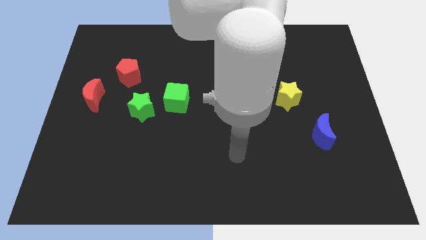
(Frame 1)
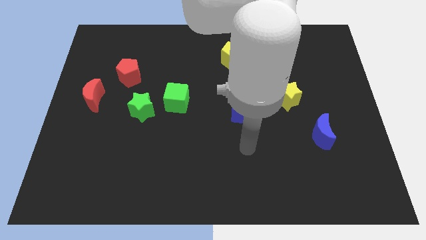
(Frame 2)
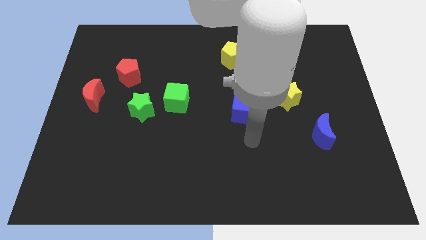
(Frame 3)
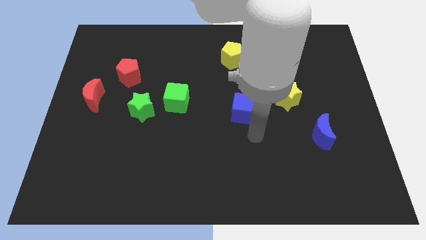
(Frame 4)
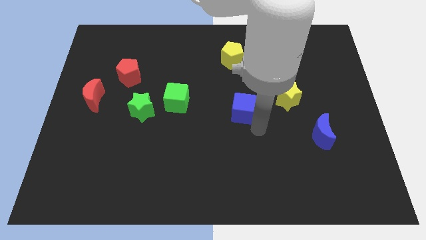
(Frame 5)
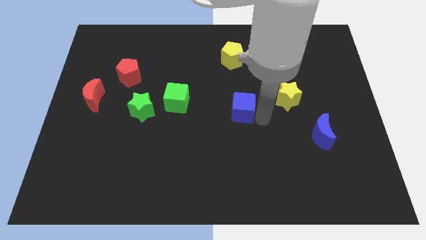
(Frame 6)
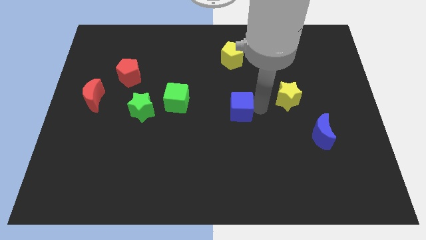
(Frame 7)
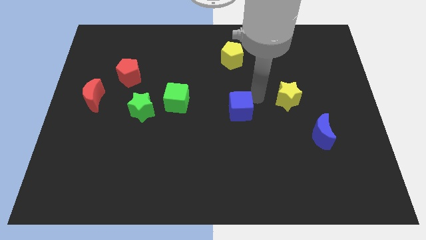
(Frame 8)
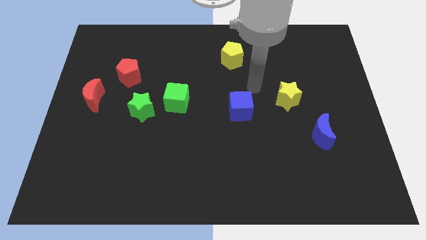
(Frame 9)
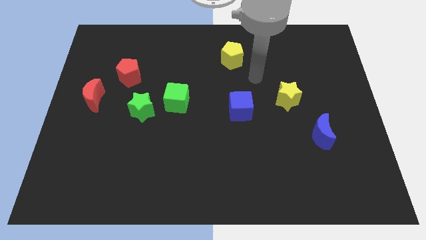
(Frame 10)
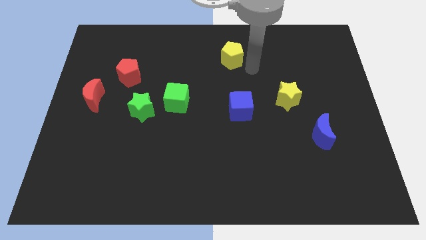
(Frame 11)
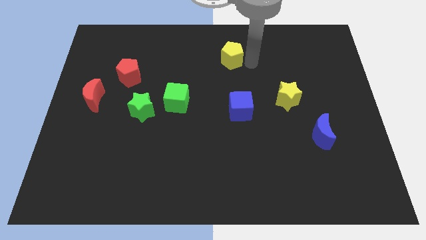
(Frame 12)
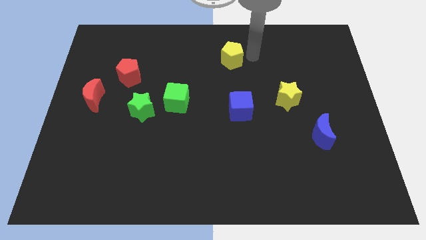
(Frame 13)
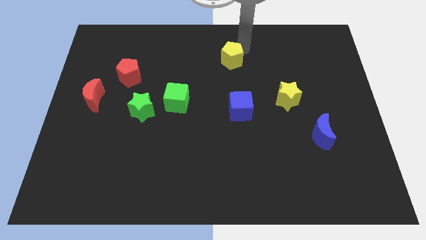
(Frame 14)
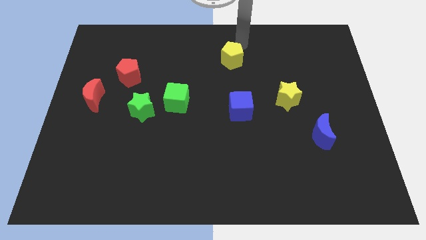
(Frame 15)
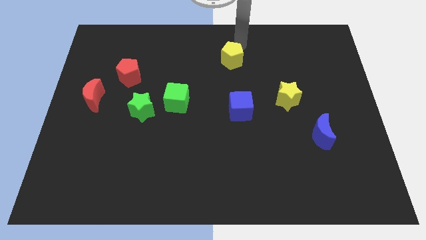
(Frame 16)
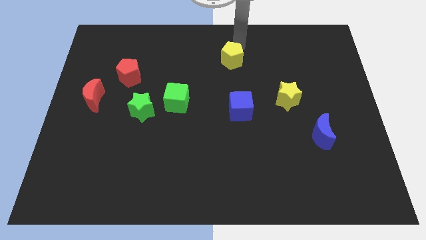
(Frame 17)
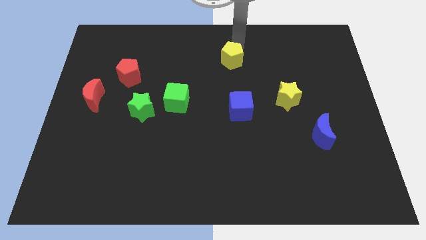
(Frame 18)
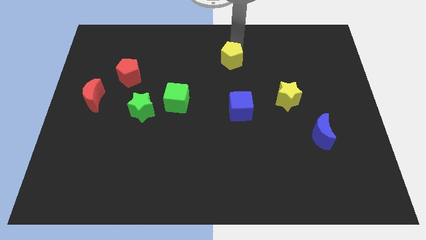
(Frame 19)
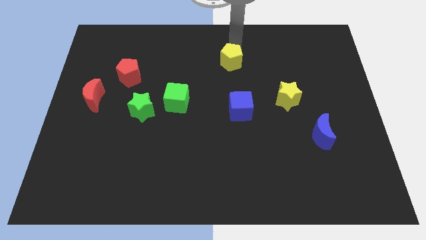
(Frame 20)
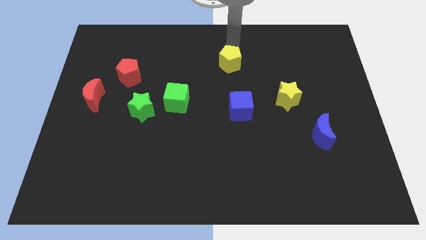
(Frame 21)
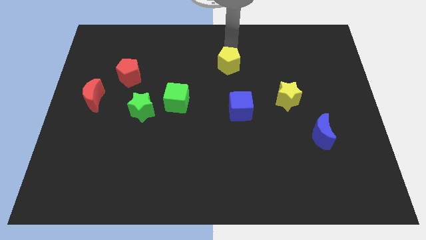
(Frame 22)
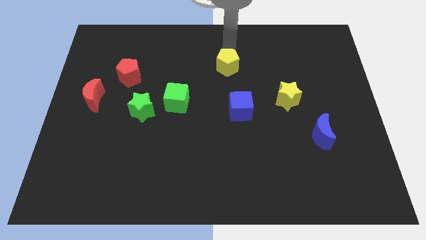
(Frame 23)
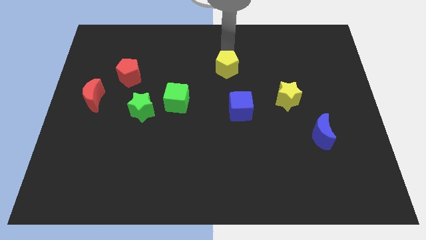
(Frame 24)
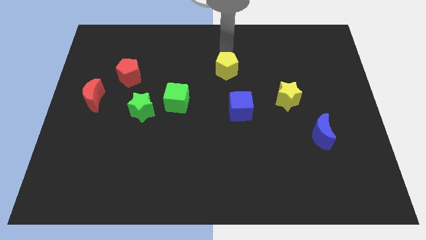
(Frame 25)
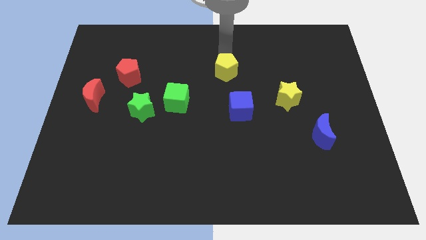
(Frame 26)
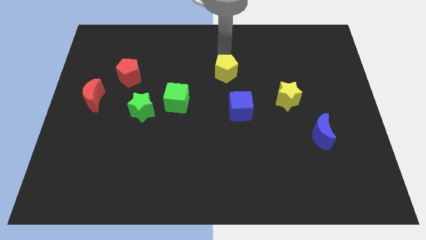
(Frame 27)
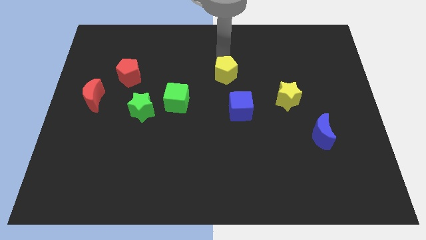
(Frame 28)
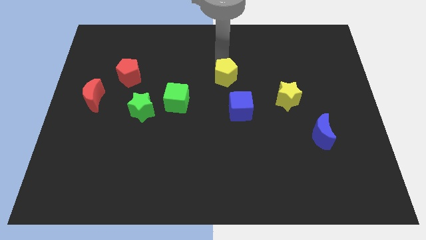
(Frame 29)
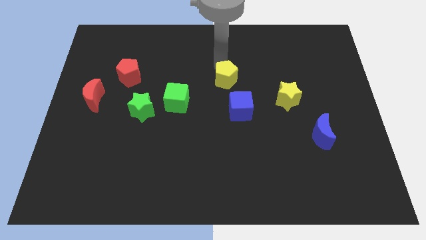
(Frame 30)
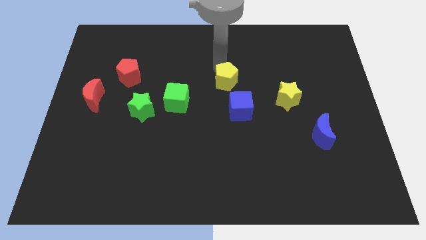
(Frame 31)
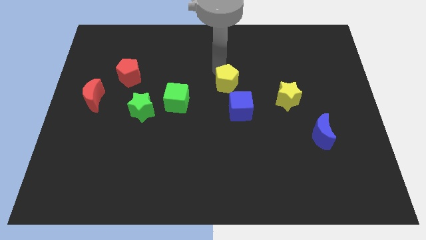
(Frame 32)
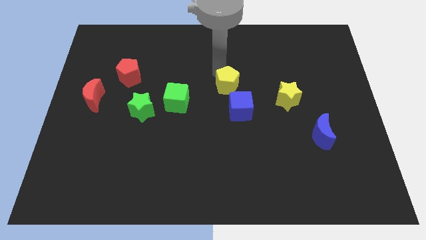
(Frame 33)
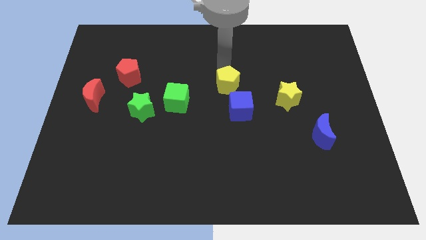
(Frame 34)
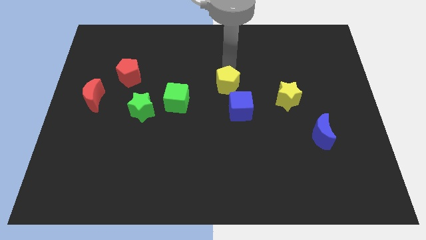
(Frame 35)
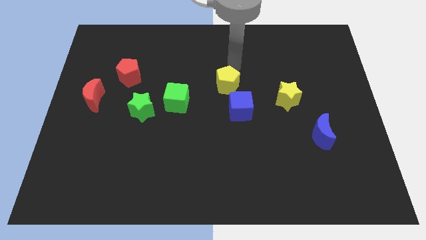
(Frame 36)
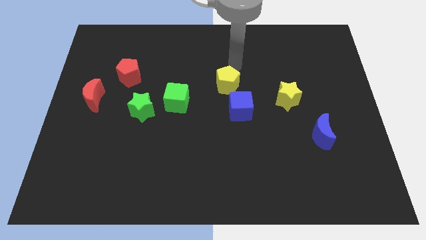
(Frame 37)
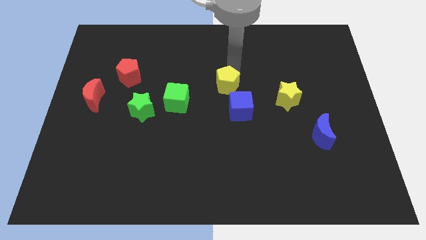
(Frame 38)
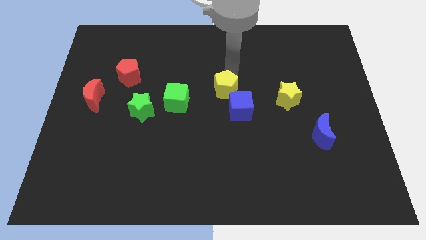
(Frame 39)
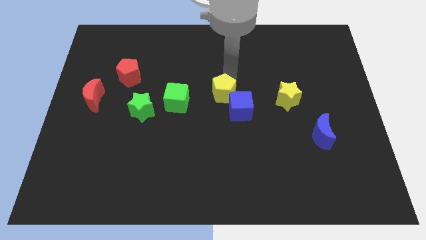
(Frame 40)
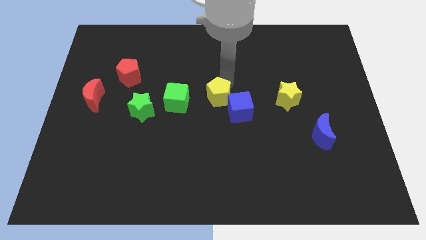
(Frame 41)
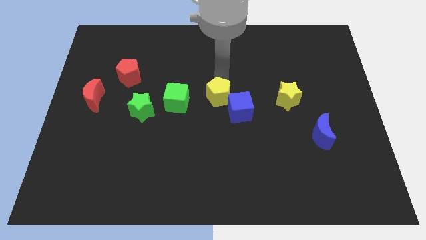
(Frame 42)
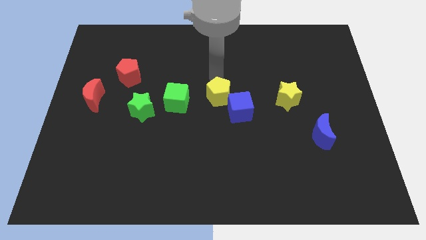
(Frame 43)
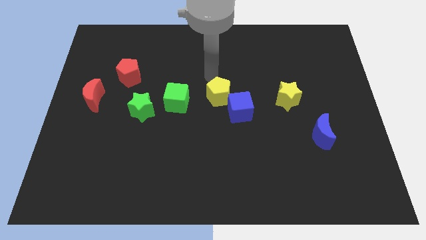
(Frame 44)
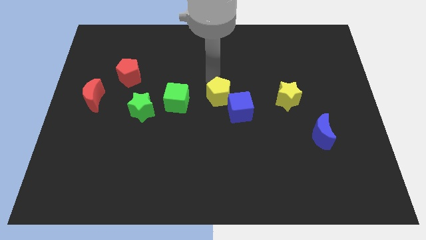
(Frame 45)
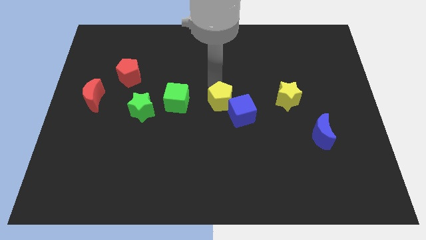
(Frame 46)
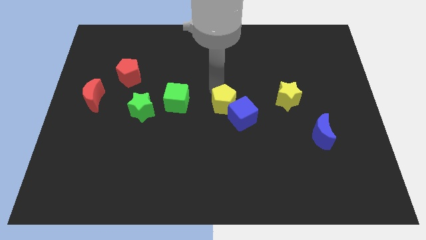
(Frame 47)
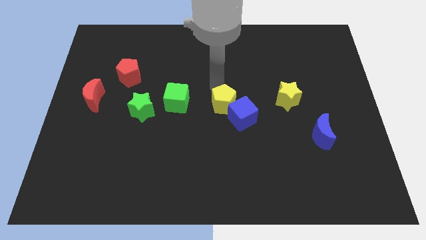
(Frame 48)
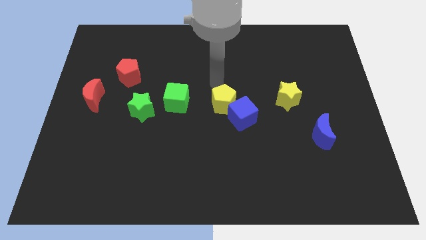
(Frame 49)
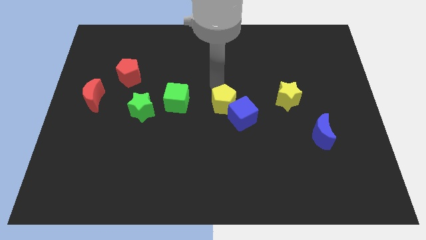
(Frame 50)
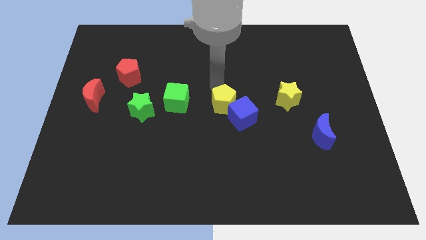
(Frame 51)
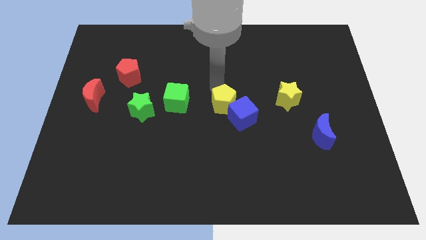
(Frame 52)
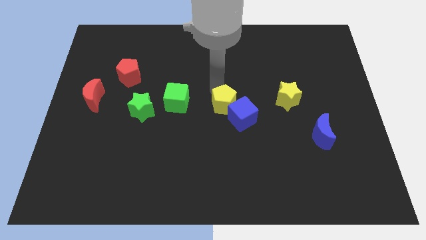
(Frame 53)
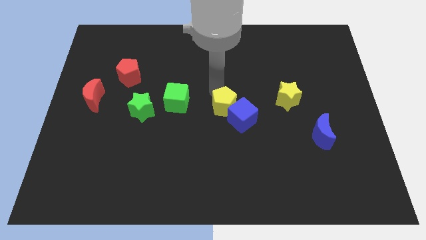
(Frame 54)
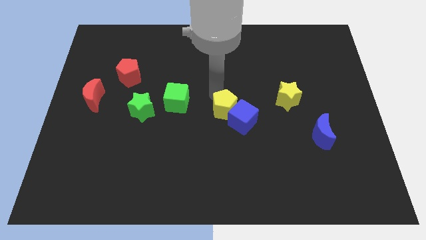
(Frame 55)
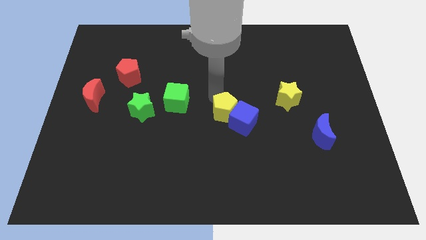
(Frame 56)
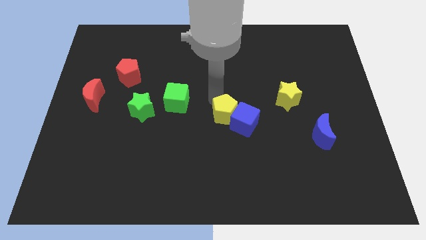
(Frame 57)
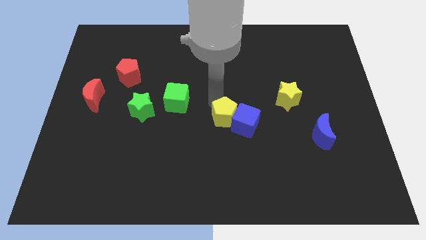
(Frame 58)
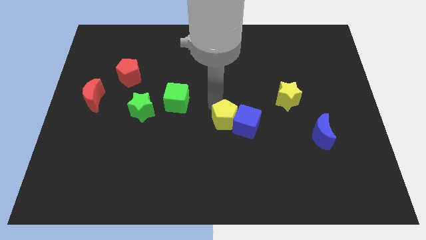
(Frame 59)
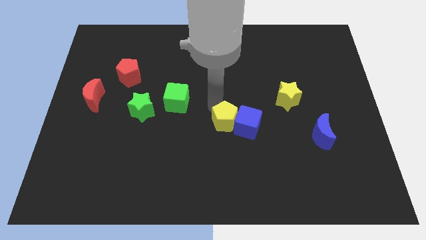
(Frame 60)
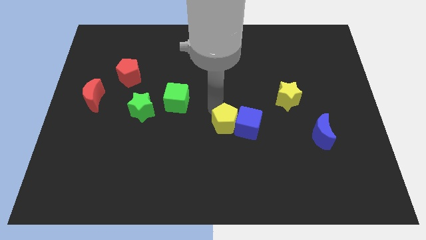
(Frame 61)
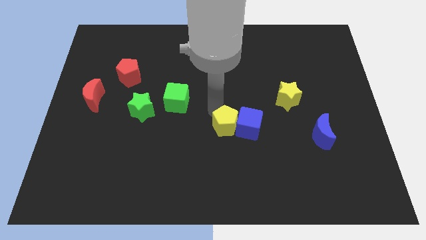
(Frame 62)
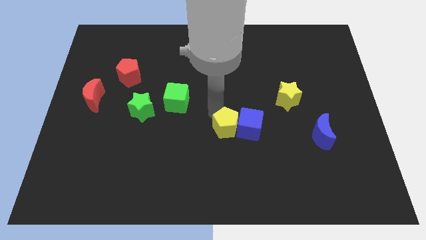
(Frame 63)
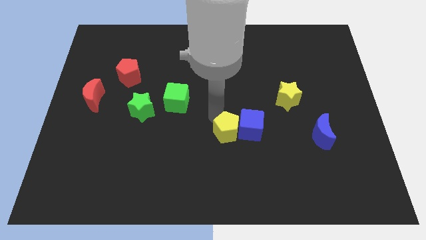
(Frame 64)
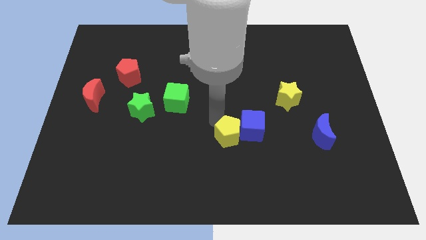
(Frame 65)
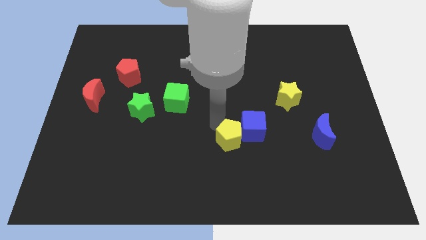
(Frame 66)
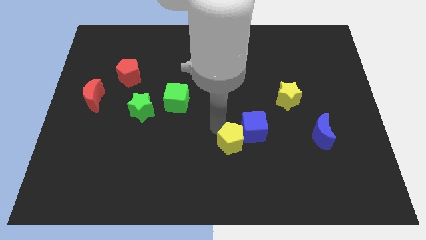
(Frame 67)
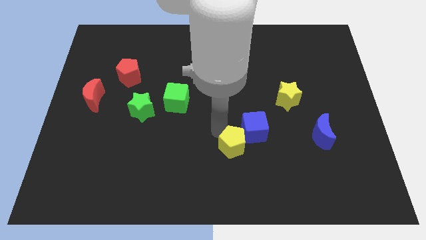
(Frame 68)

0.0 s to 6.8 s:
put the yellow pentagon to the bottom of the blue cube

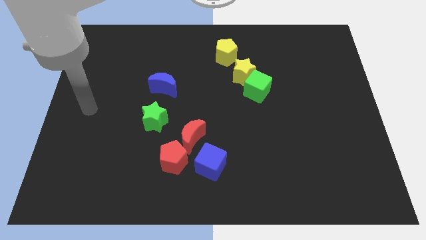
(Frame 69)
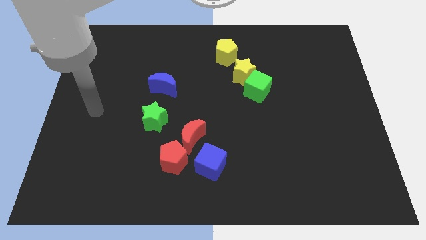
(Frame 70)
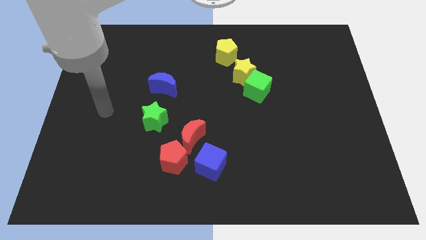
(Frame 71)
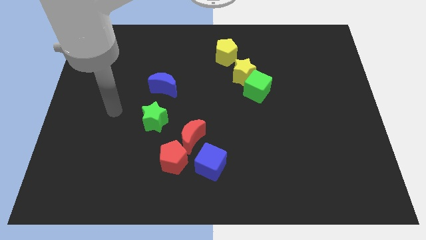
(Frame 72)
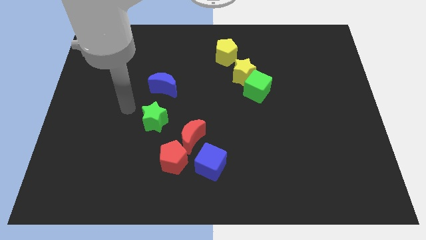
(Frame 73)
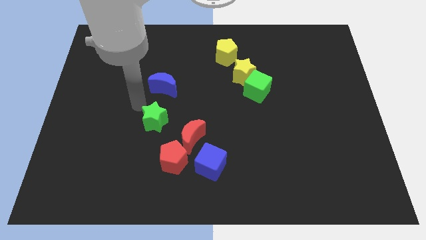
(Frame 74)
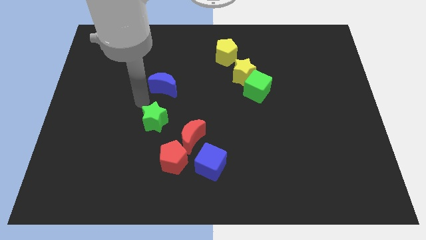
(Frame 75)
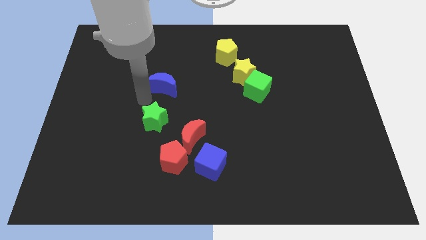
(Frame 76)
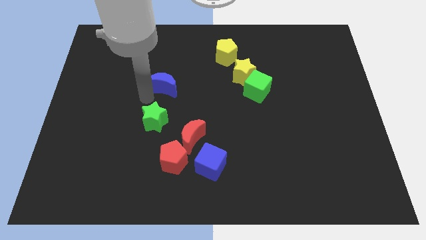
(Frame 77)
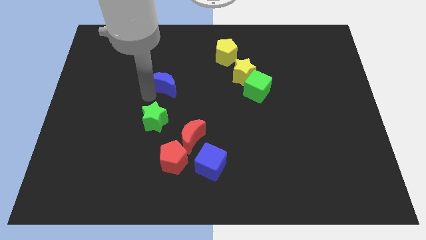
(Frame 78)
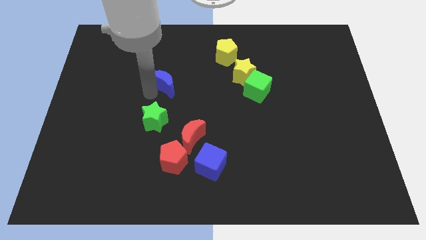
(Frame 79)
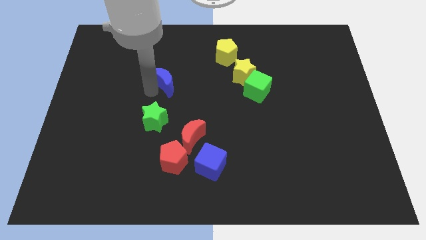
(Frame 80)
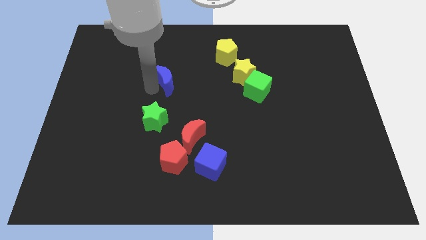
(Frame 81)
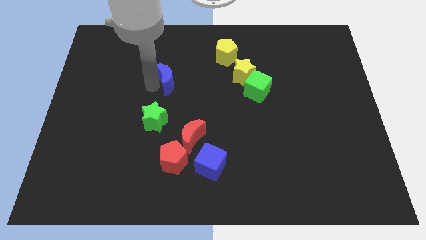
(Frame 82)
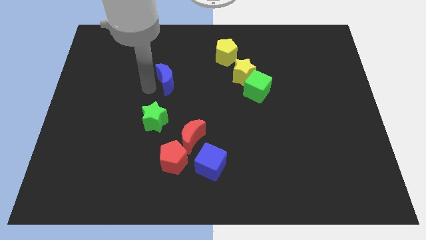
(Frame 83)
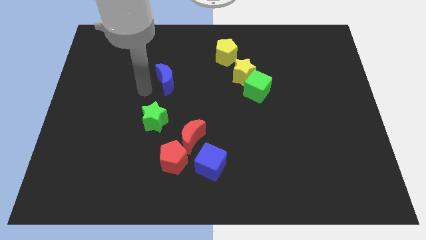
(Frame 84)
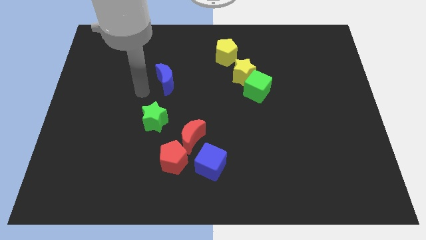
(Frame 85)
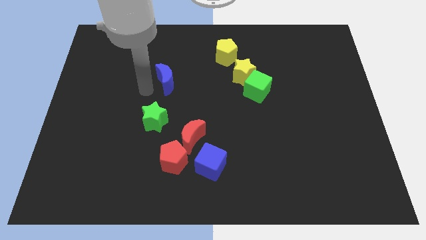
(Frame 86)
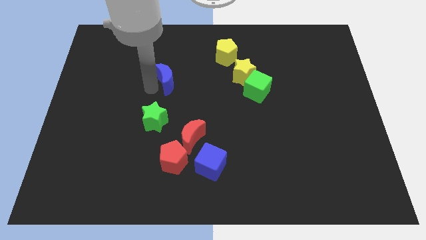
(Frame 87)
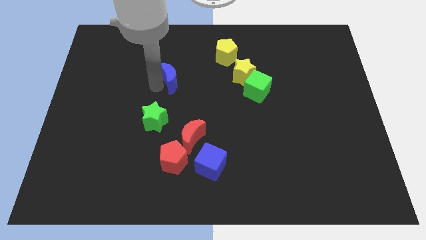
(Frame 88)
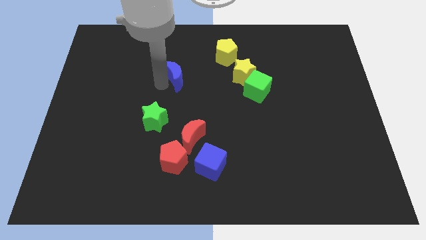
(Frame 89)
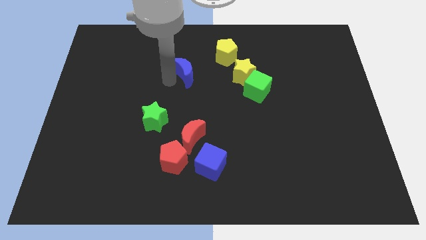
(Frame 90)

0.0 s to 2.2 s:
slide the blue moon diagonally down and to the left of the yellow pentagon
